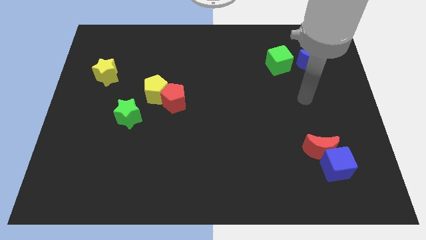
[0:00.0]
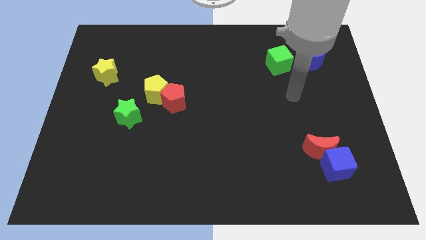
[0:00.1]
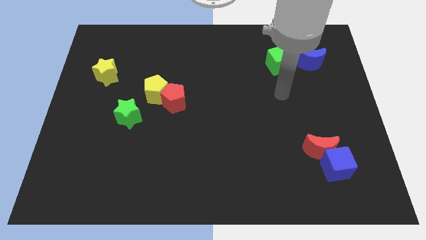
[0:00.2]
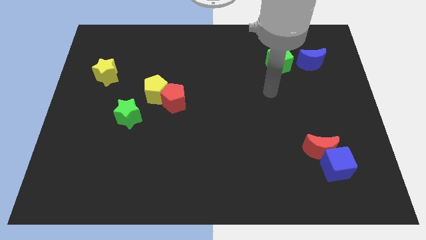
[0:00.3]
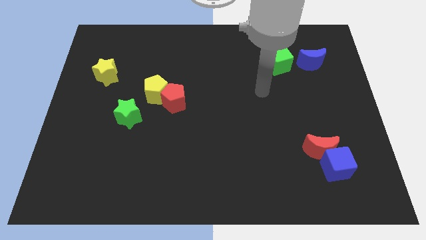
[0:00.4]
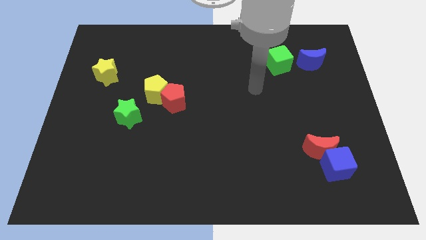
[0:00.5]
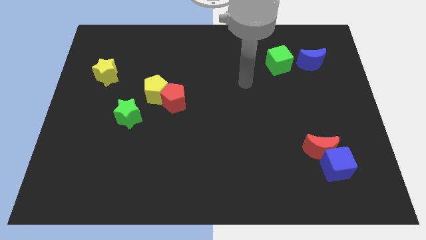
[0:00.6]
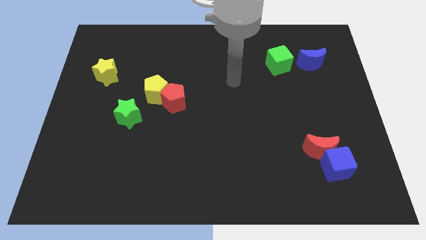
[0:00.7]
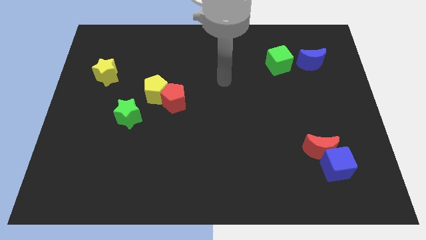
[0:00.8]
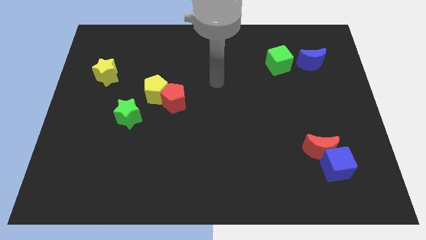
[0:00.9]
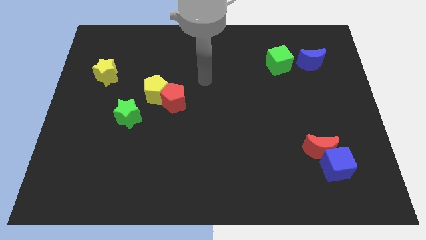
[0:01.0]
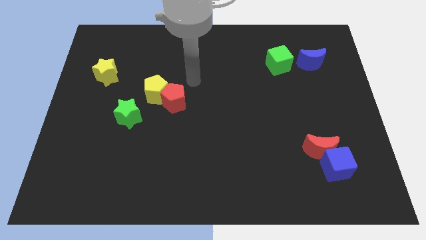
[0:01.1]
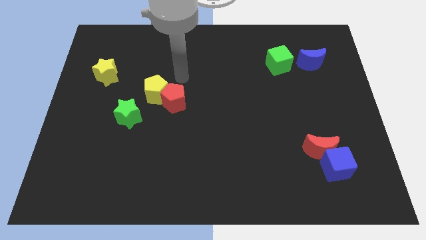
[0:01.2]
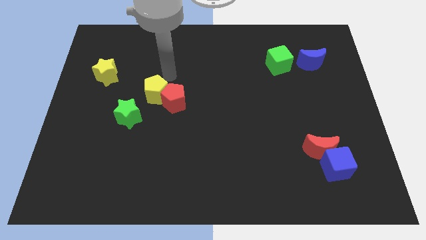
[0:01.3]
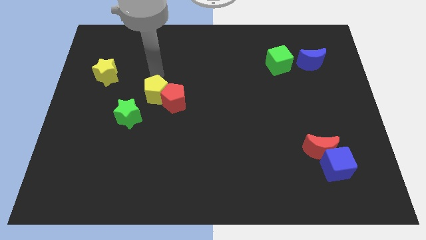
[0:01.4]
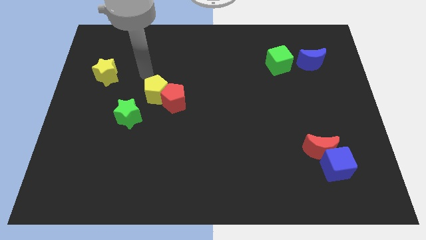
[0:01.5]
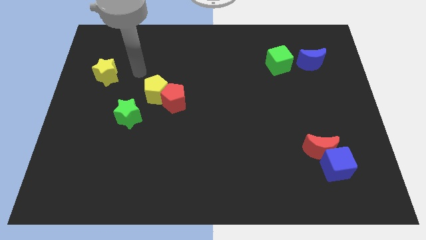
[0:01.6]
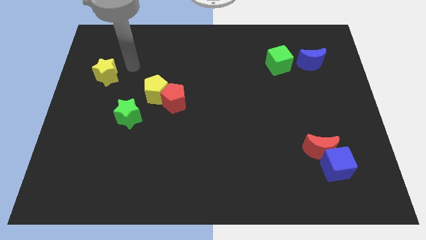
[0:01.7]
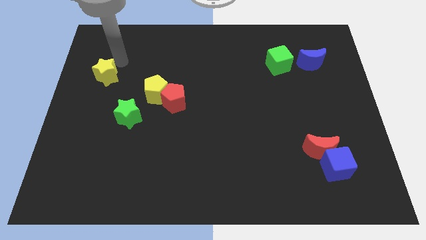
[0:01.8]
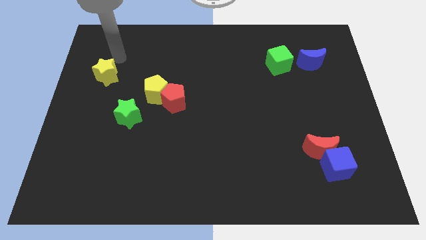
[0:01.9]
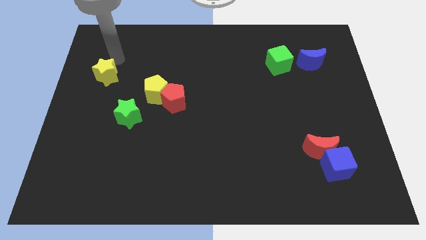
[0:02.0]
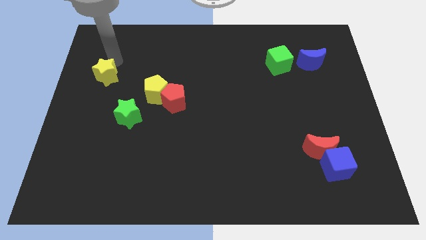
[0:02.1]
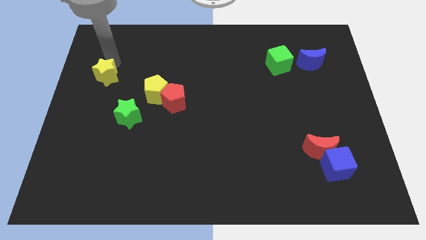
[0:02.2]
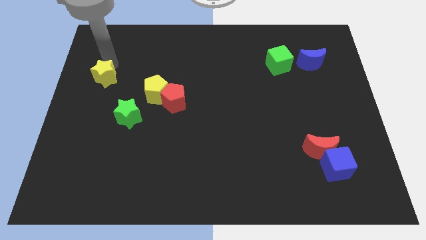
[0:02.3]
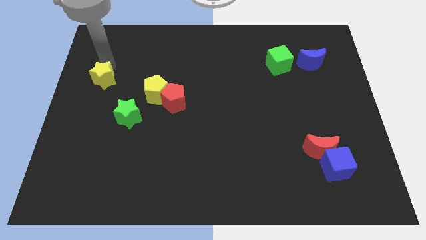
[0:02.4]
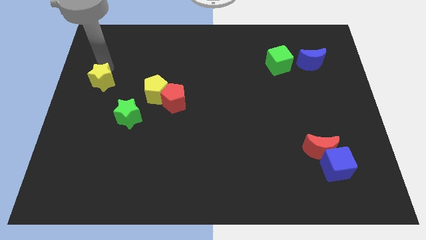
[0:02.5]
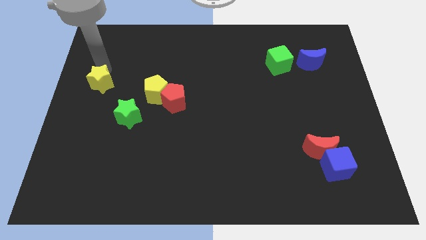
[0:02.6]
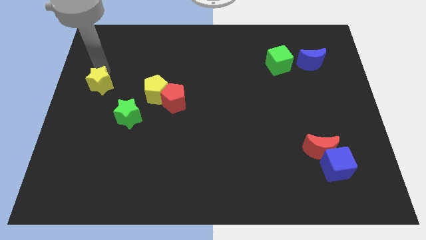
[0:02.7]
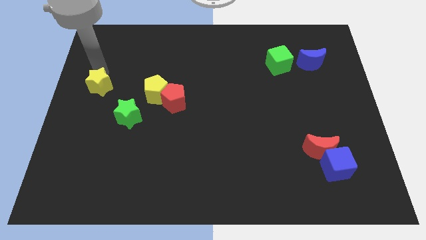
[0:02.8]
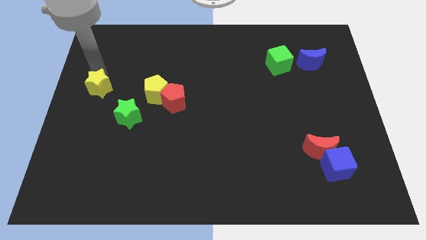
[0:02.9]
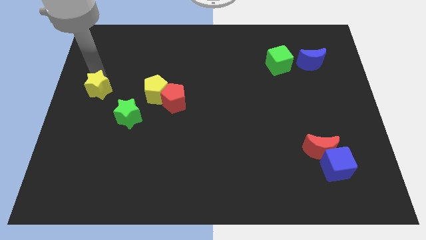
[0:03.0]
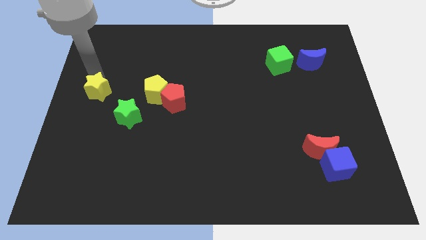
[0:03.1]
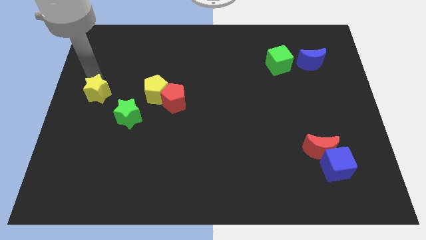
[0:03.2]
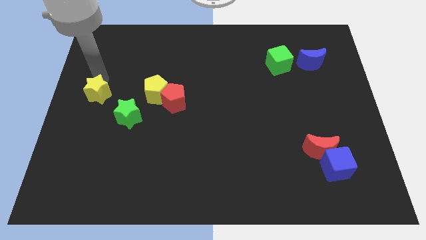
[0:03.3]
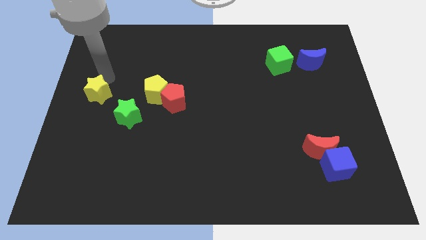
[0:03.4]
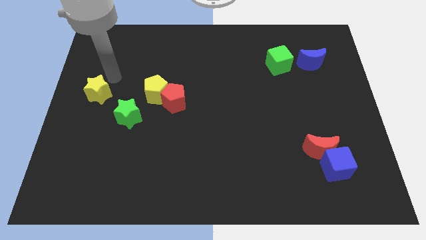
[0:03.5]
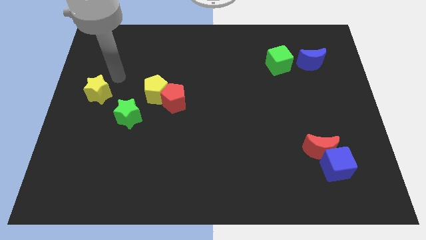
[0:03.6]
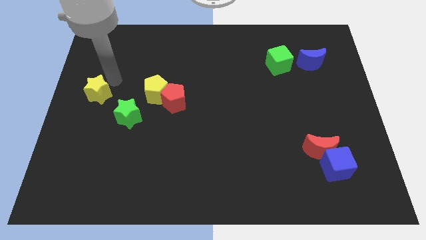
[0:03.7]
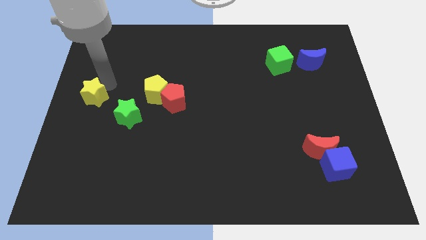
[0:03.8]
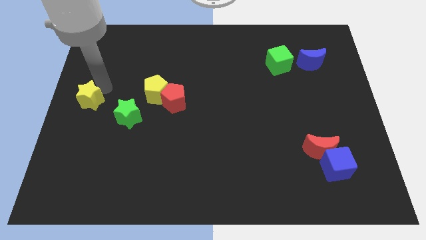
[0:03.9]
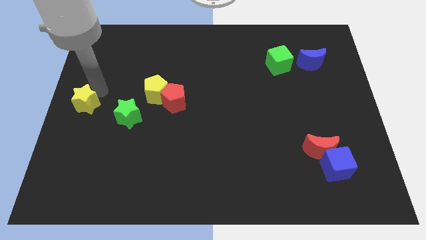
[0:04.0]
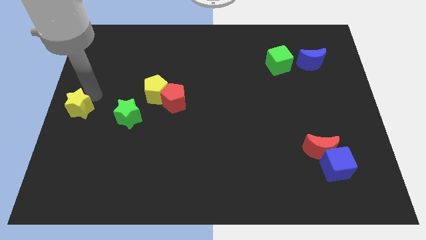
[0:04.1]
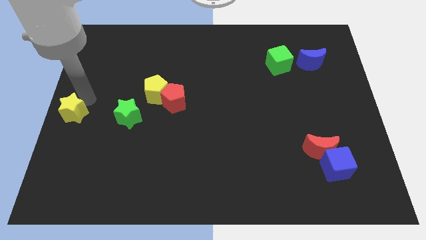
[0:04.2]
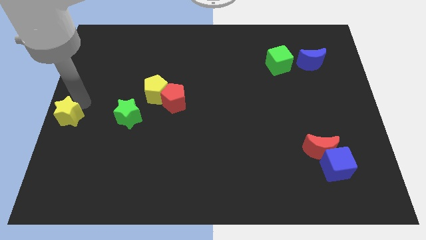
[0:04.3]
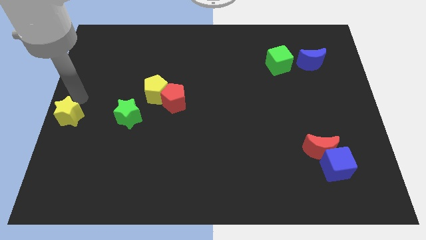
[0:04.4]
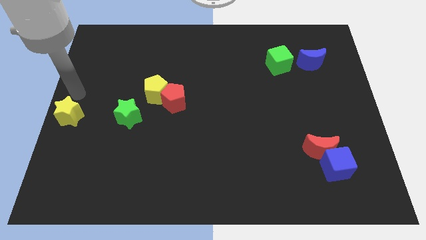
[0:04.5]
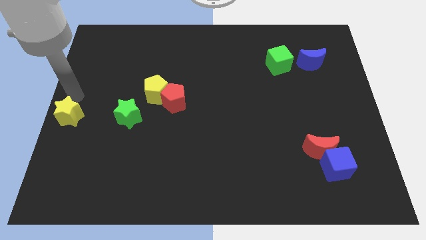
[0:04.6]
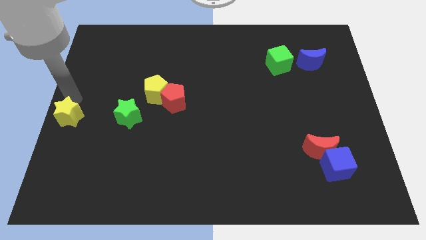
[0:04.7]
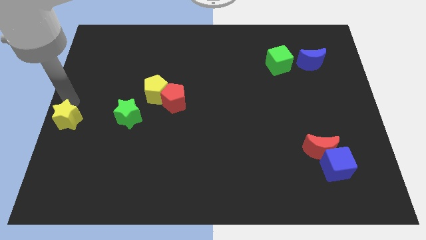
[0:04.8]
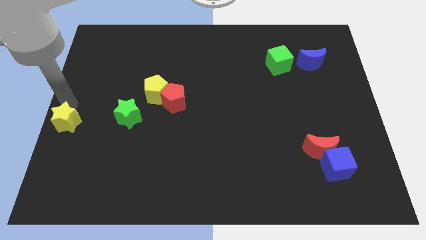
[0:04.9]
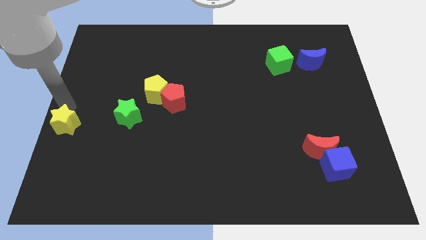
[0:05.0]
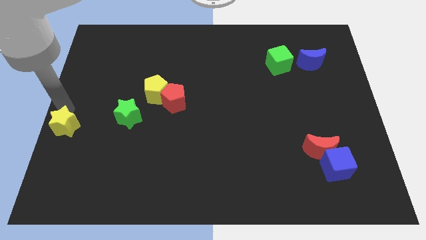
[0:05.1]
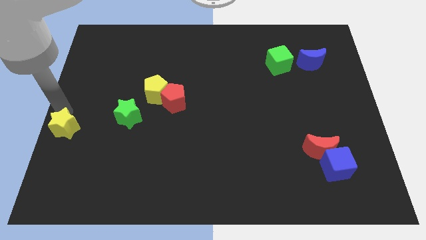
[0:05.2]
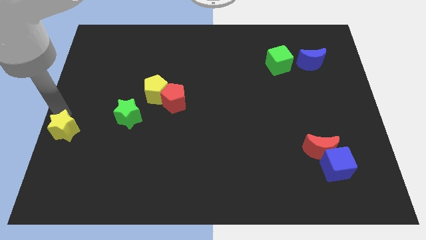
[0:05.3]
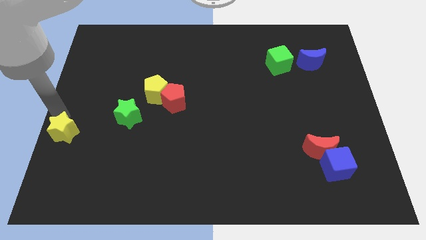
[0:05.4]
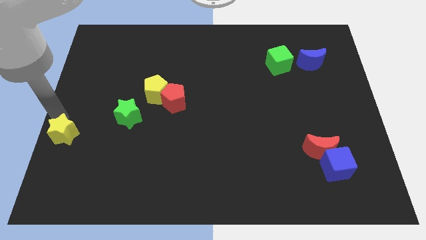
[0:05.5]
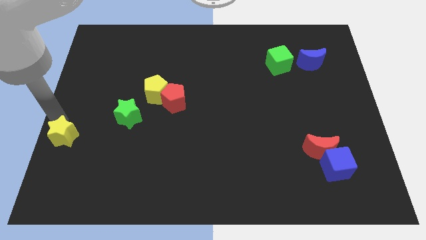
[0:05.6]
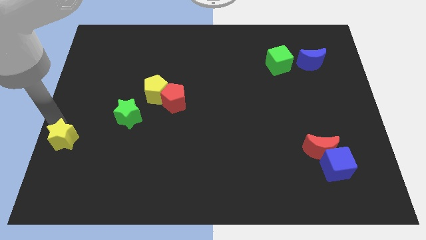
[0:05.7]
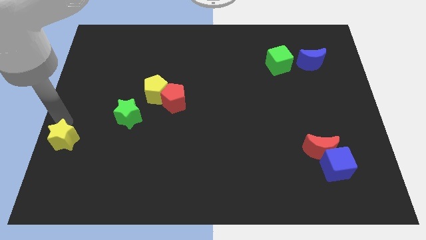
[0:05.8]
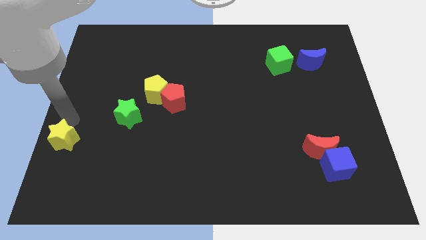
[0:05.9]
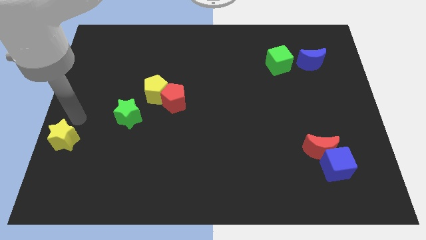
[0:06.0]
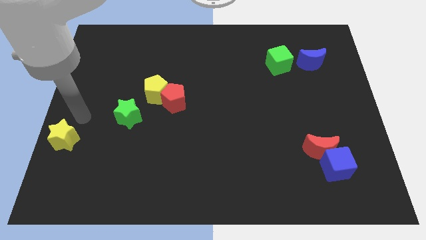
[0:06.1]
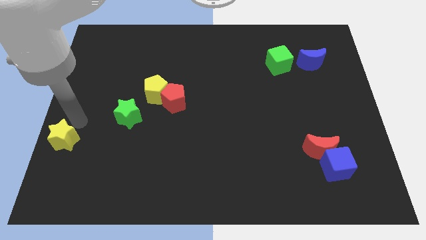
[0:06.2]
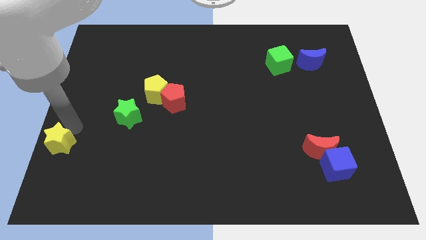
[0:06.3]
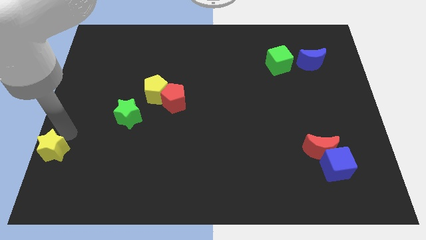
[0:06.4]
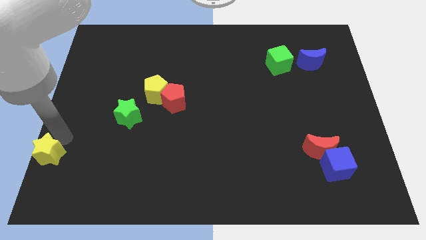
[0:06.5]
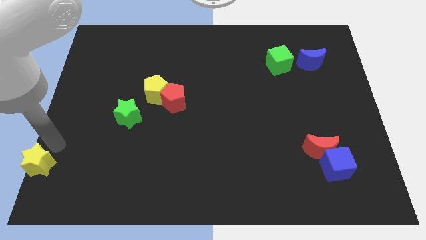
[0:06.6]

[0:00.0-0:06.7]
put the yellow star to the lower left corner

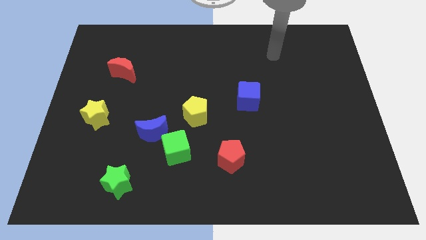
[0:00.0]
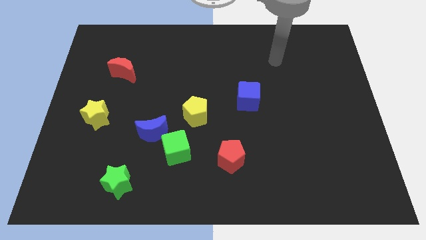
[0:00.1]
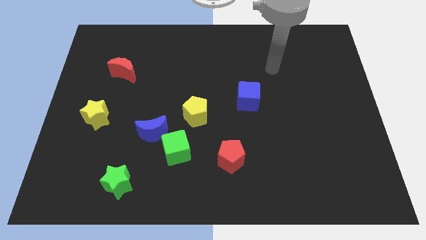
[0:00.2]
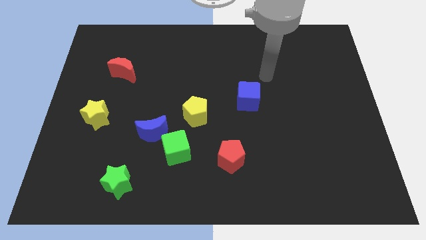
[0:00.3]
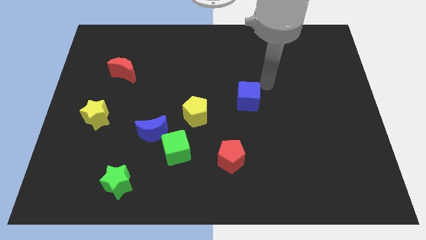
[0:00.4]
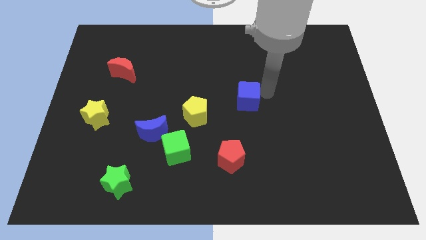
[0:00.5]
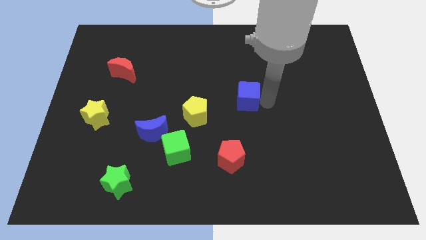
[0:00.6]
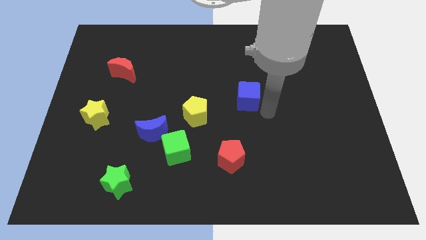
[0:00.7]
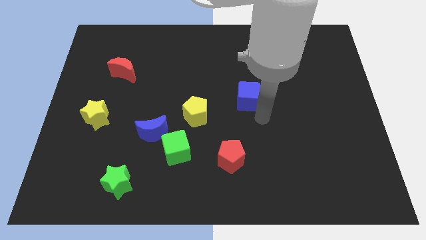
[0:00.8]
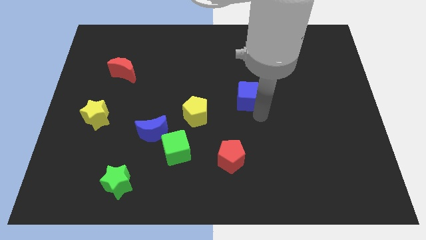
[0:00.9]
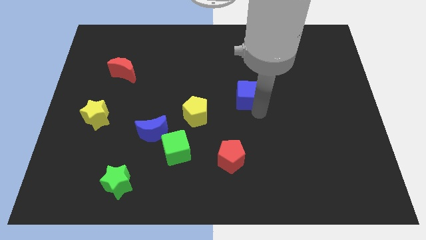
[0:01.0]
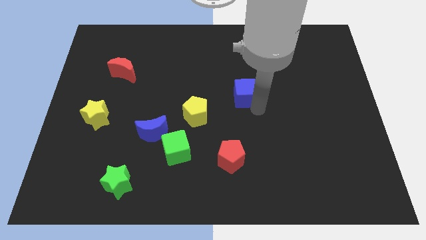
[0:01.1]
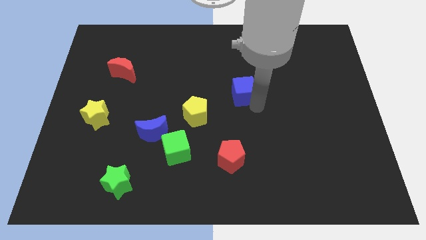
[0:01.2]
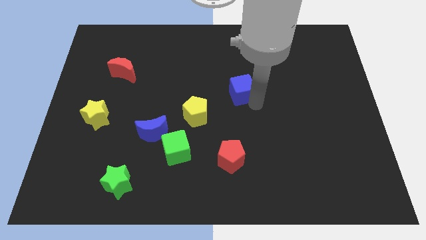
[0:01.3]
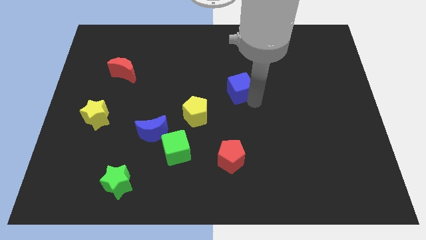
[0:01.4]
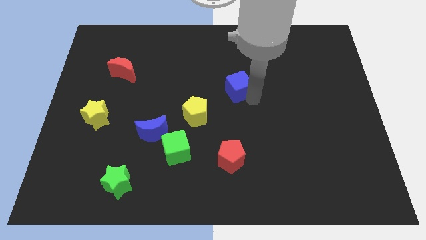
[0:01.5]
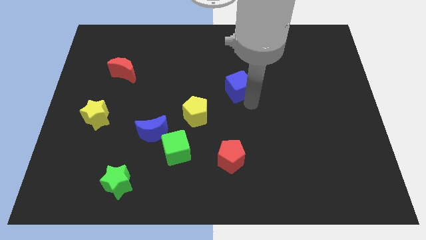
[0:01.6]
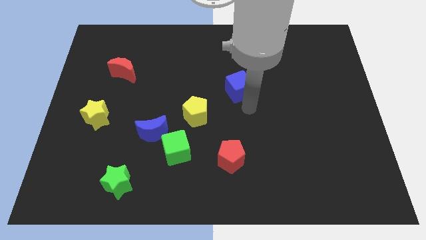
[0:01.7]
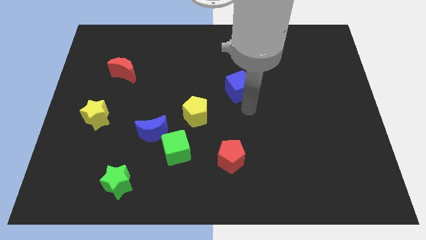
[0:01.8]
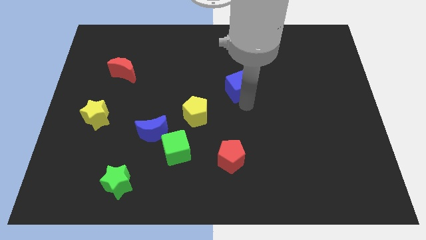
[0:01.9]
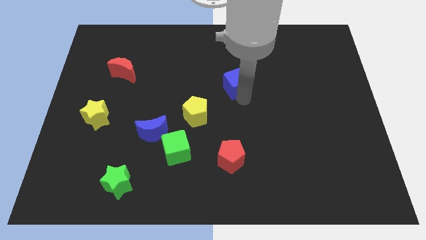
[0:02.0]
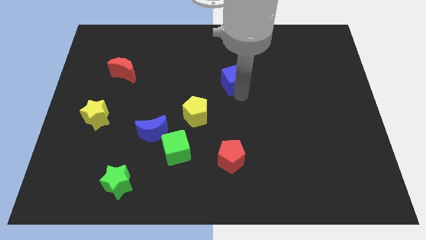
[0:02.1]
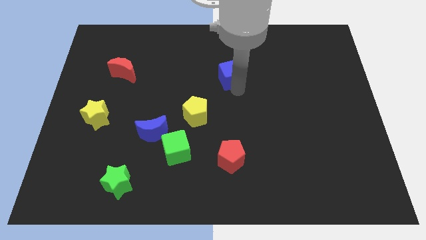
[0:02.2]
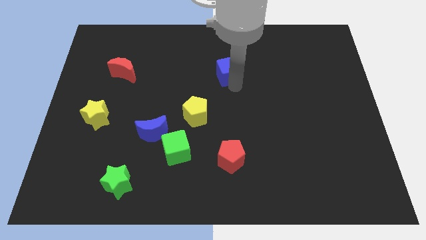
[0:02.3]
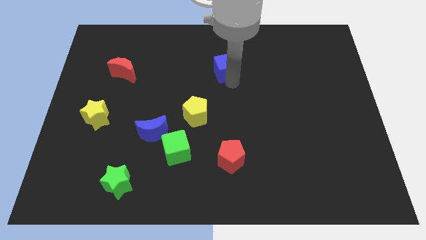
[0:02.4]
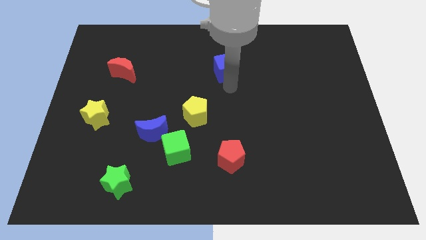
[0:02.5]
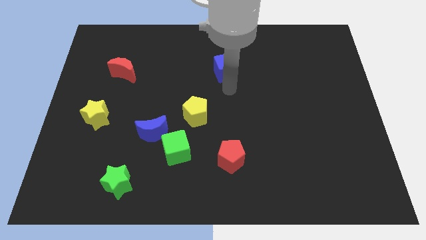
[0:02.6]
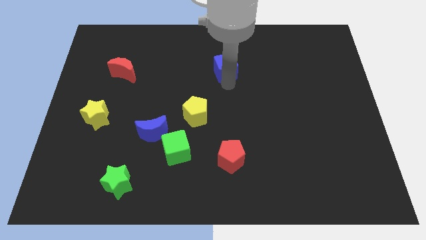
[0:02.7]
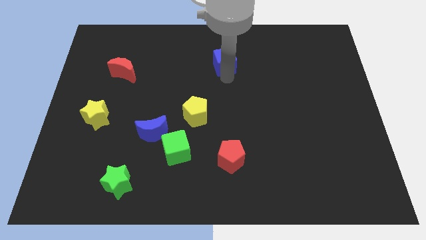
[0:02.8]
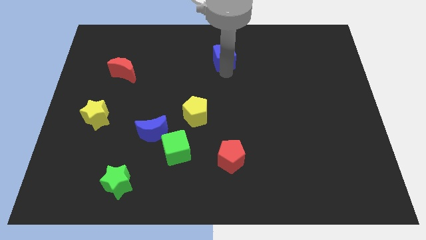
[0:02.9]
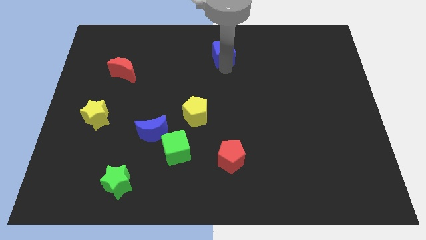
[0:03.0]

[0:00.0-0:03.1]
move the blue cube to the top
